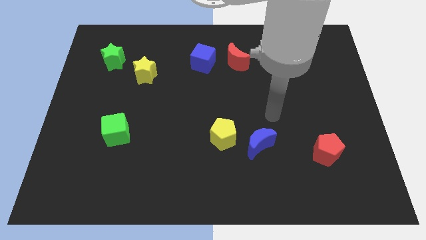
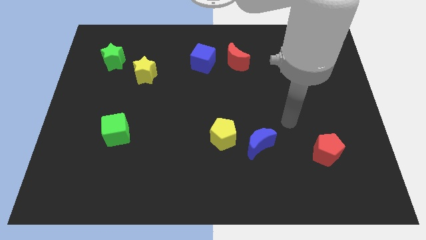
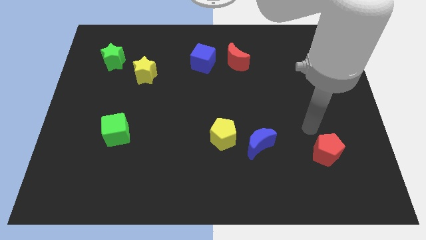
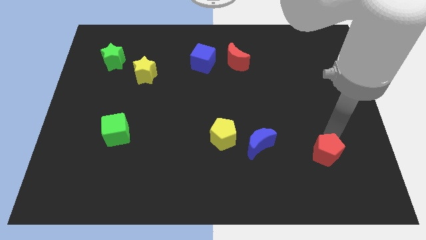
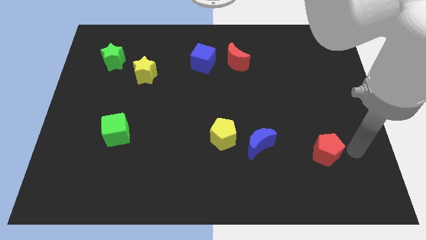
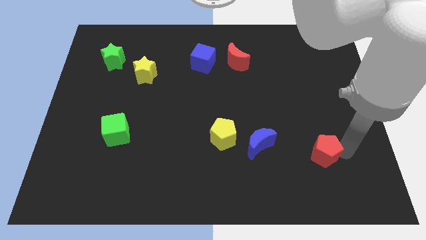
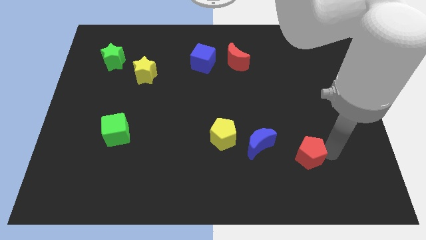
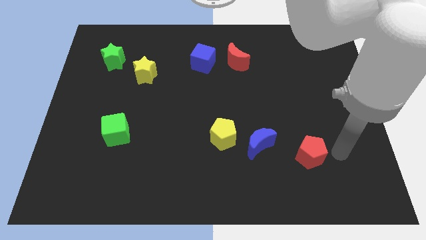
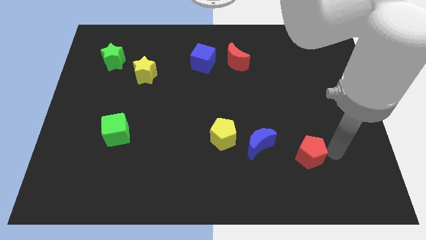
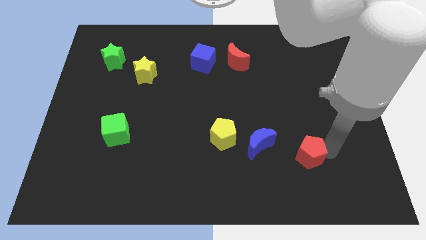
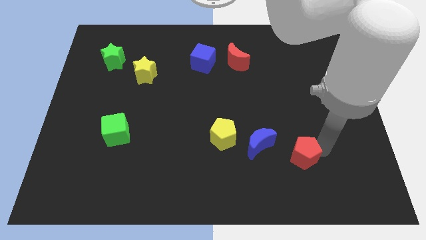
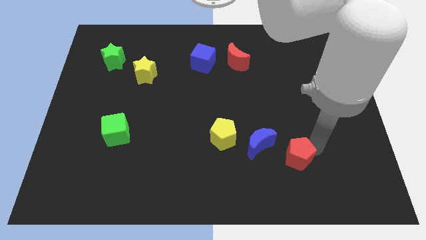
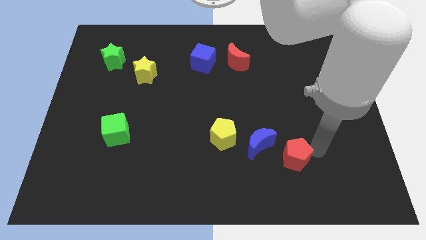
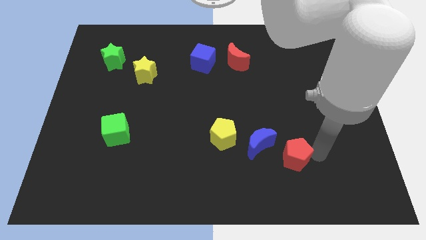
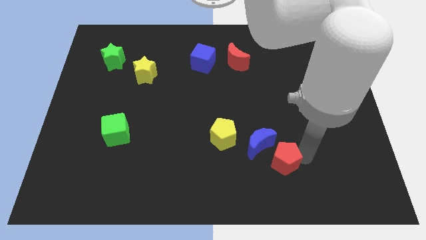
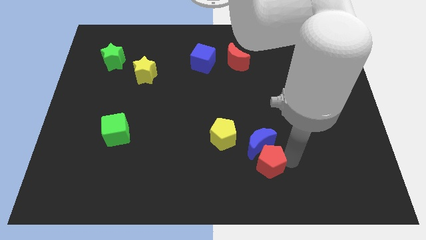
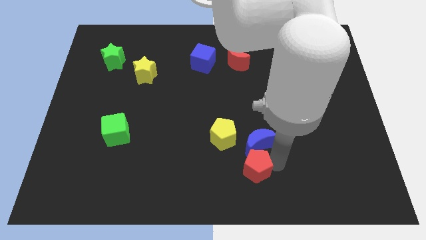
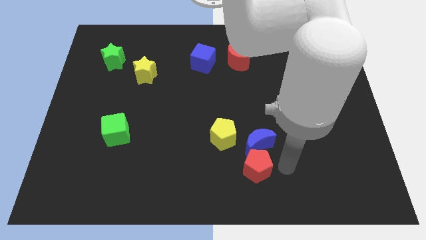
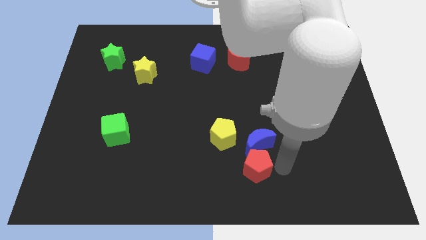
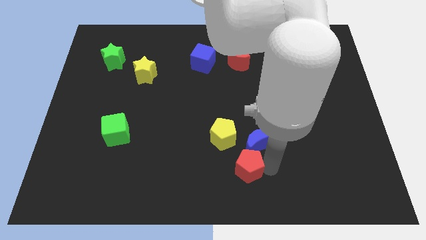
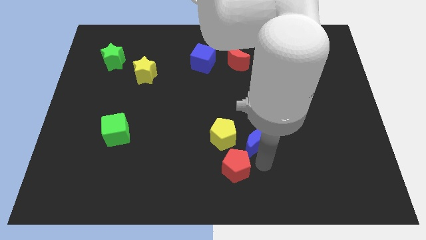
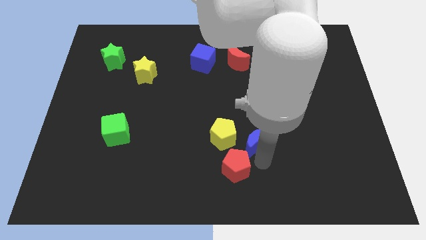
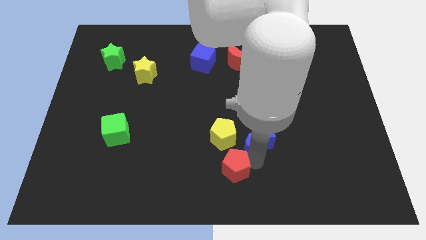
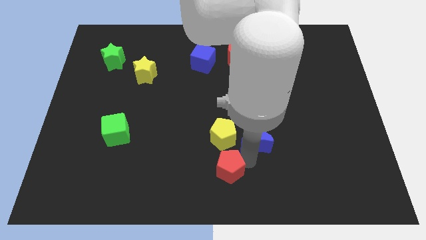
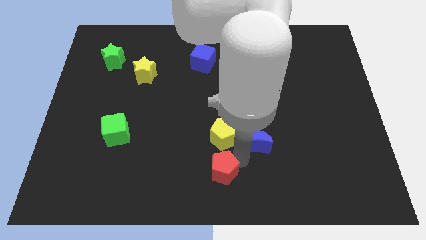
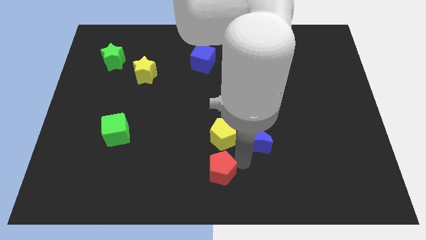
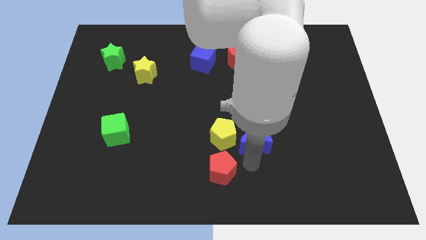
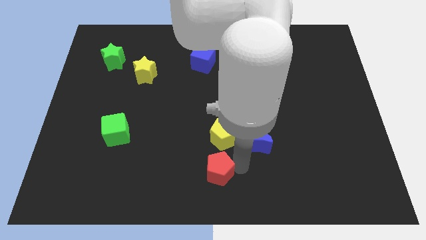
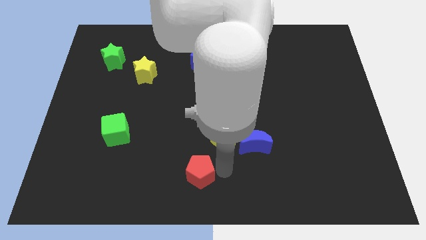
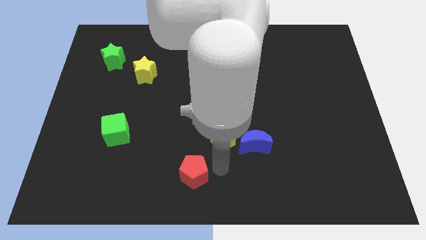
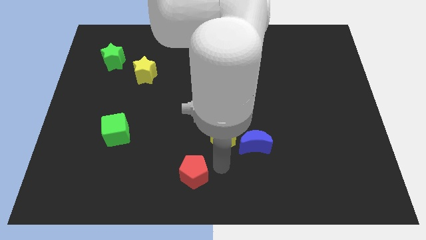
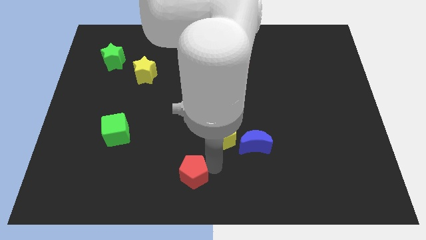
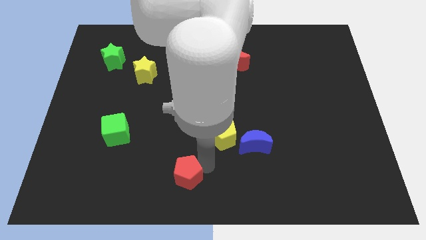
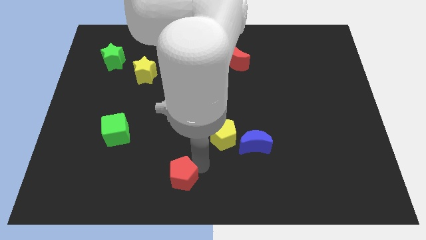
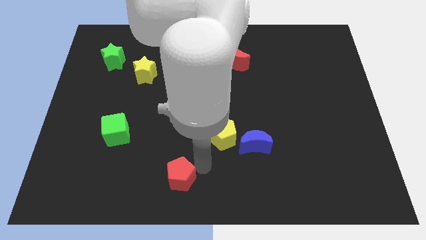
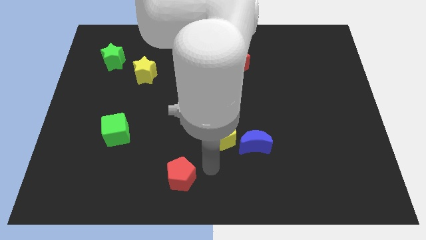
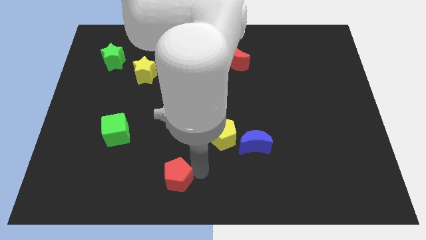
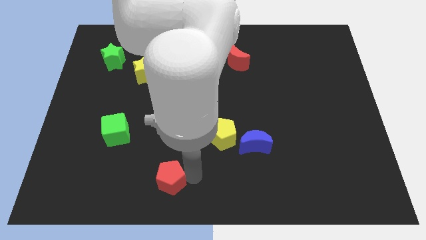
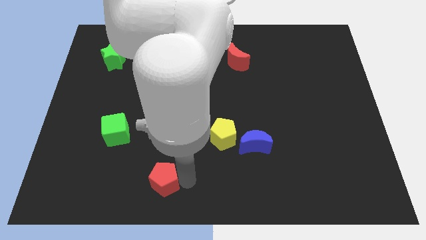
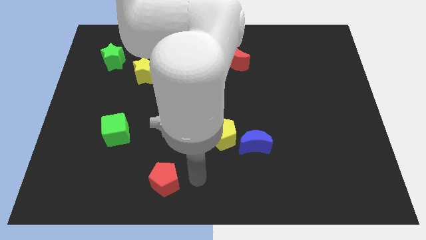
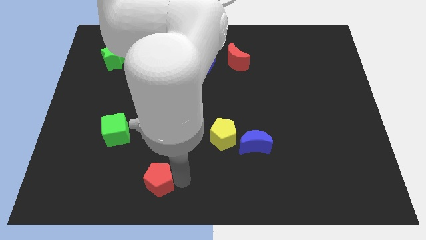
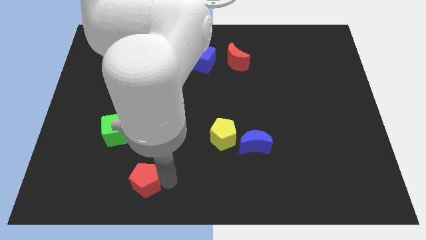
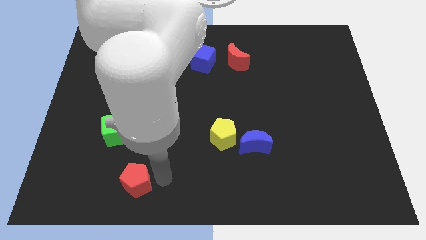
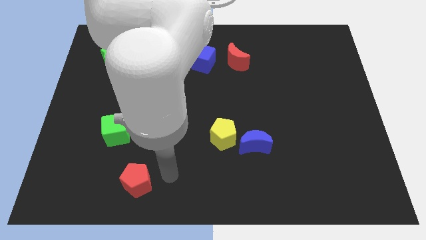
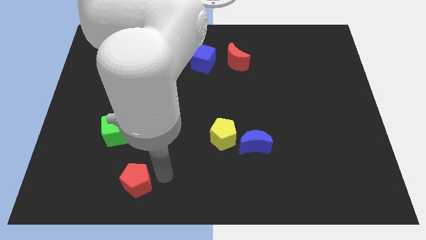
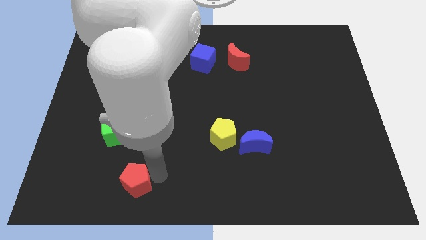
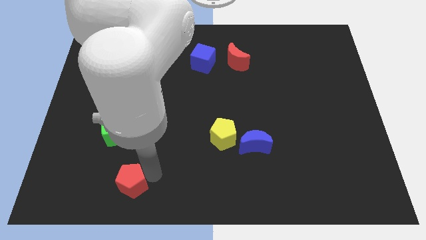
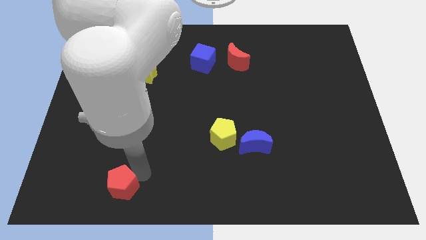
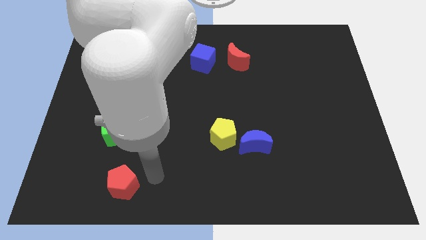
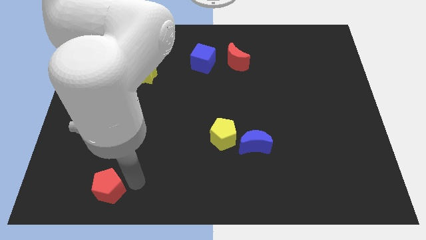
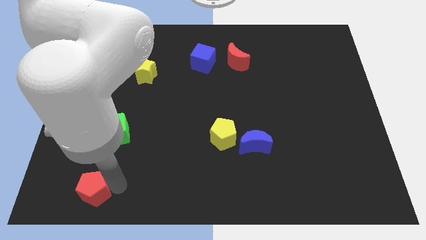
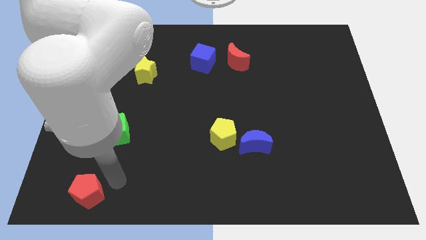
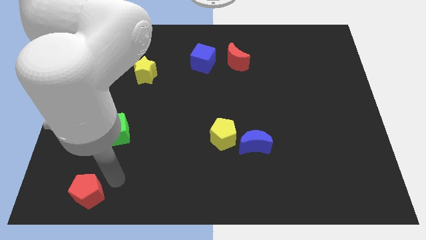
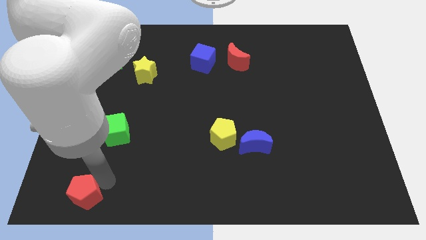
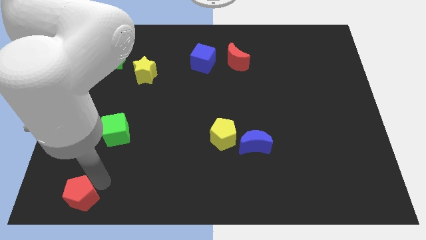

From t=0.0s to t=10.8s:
put the red pentagon to the lower left corner

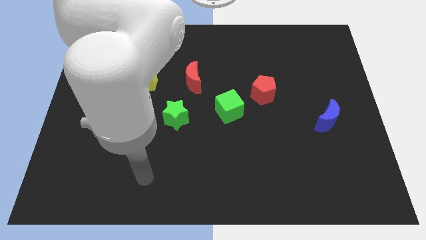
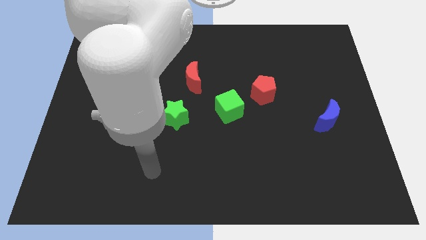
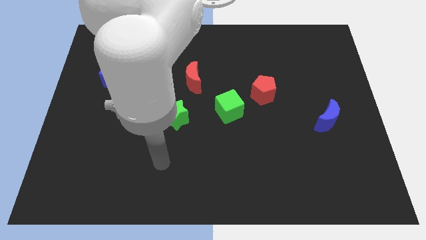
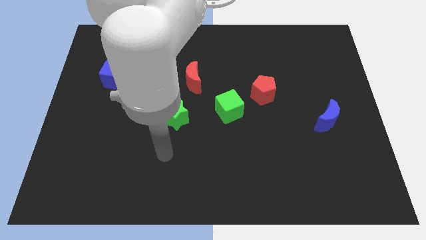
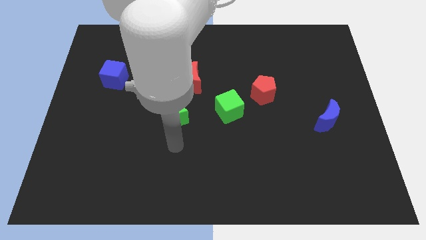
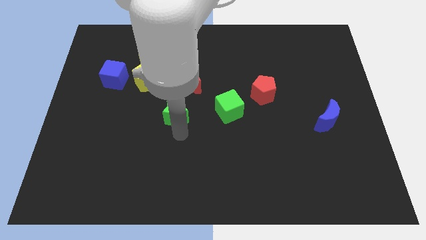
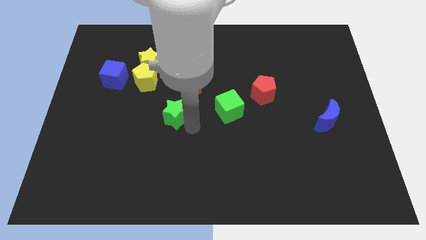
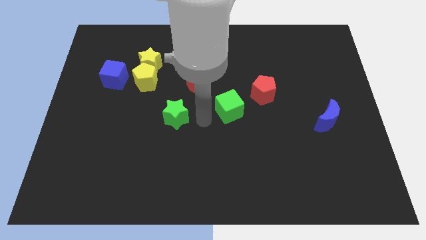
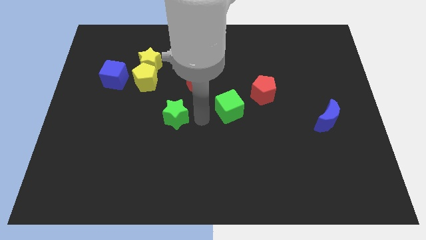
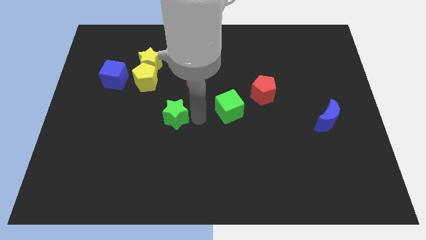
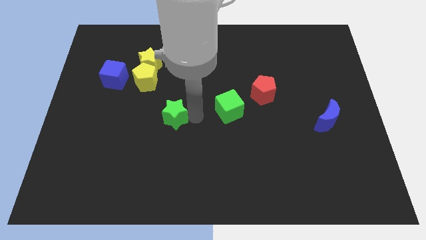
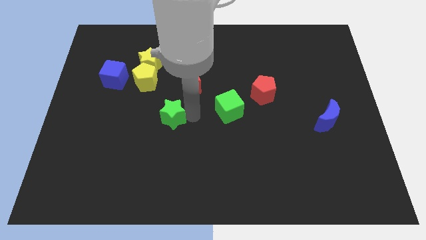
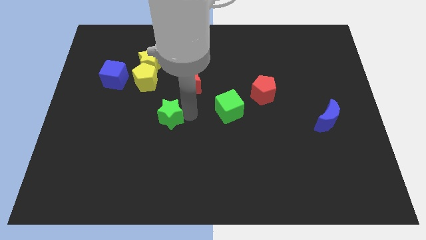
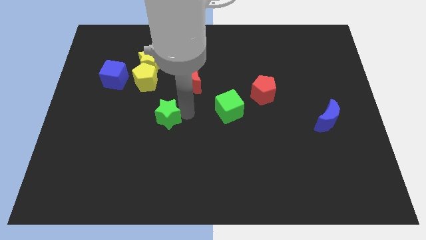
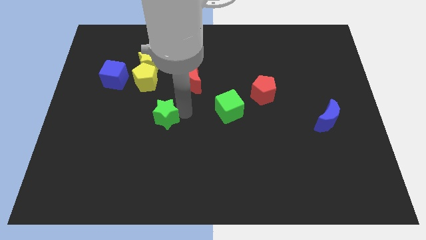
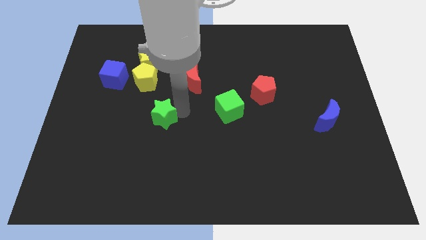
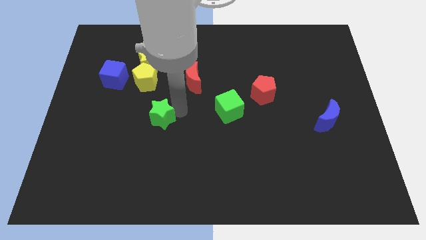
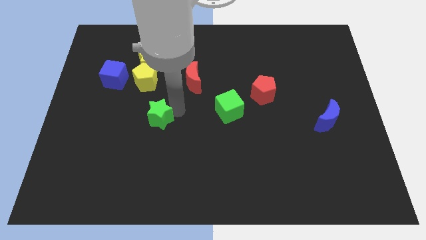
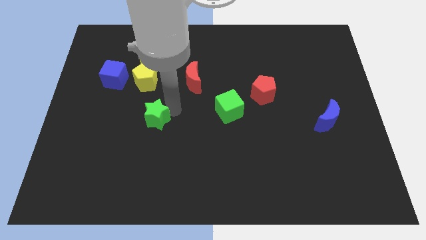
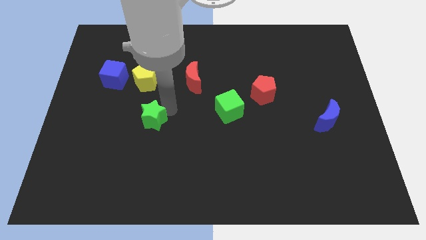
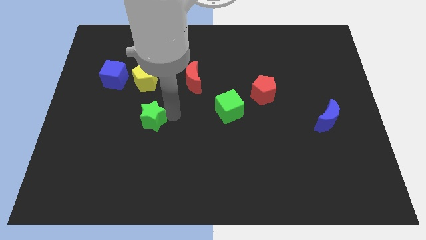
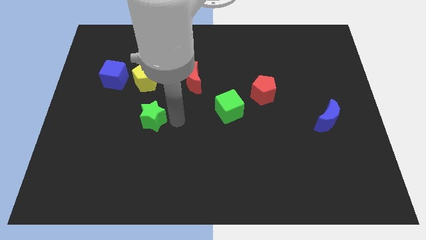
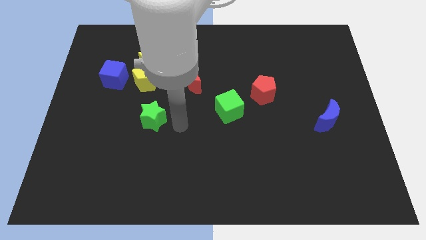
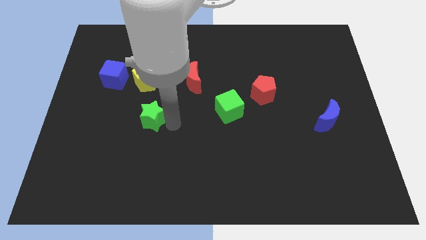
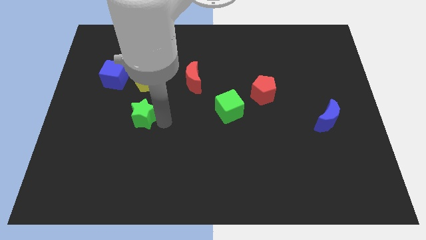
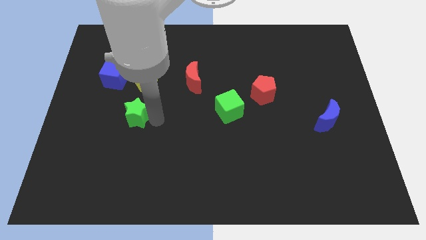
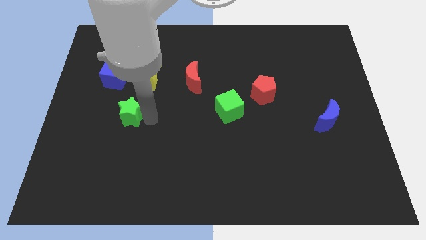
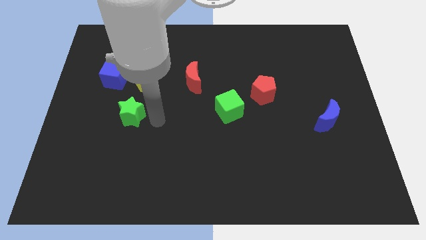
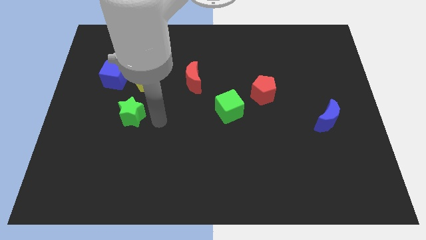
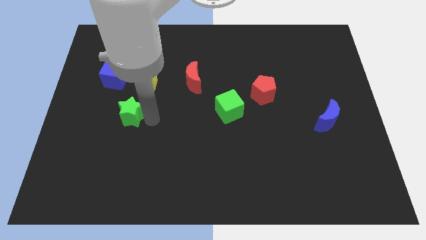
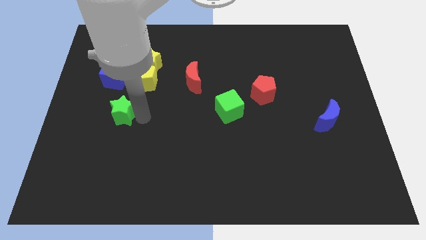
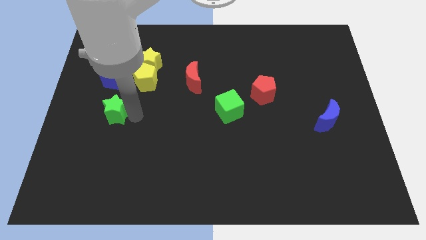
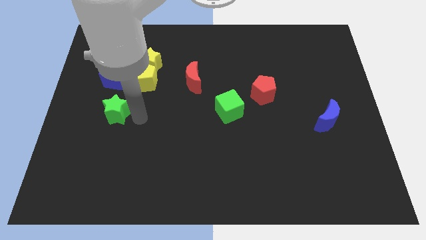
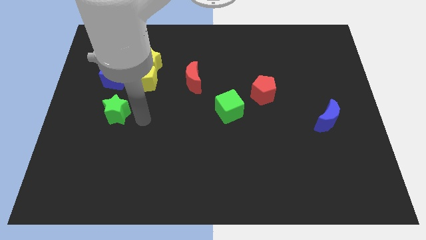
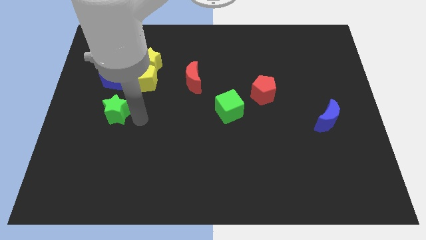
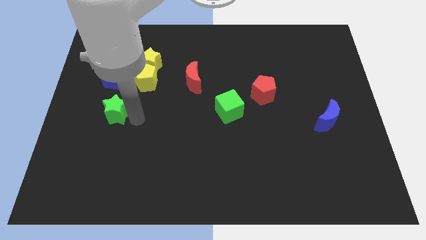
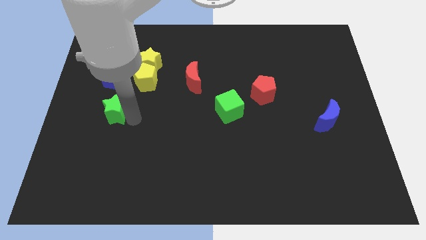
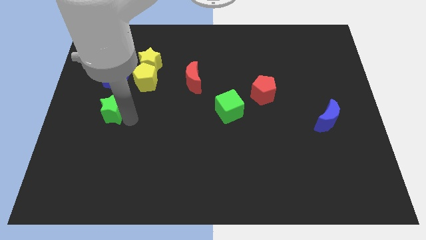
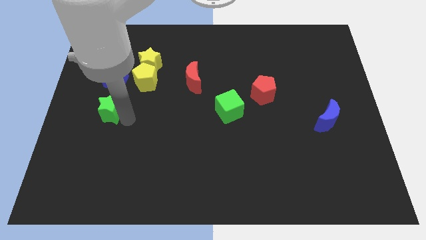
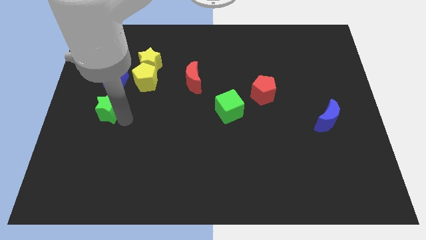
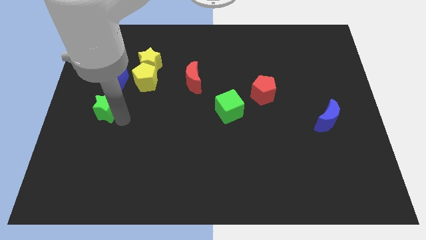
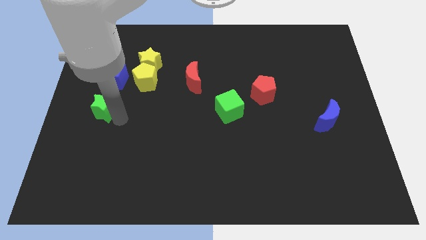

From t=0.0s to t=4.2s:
slide the green star to the center left
